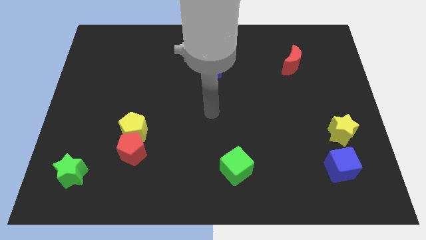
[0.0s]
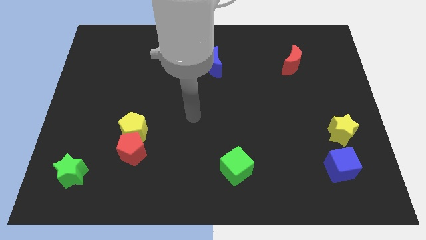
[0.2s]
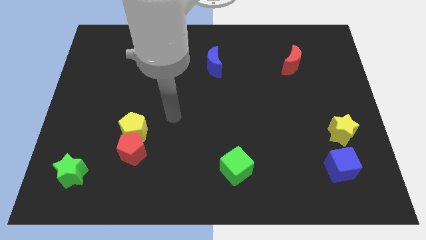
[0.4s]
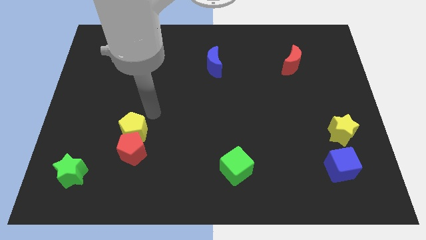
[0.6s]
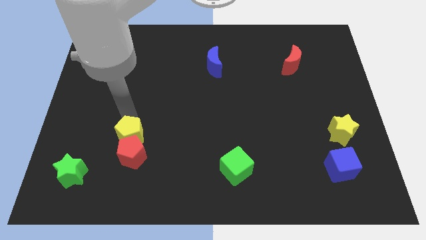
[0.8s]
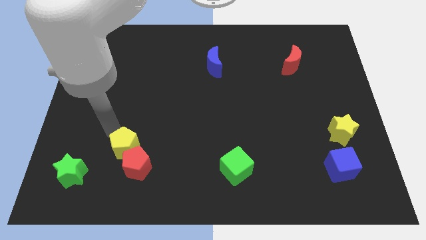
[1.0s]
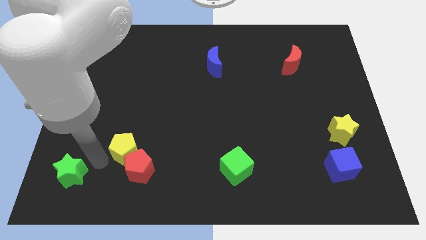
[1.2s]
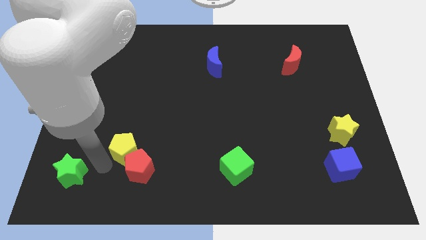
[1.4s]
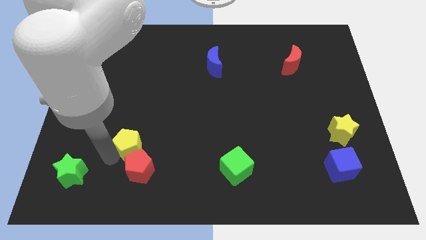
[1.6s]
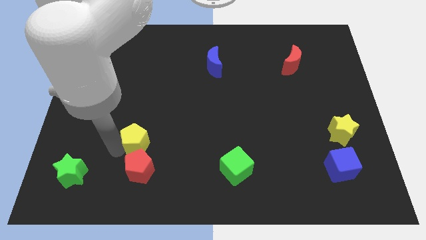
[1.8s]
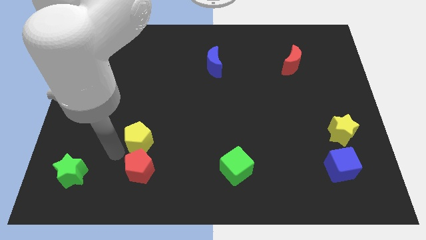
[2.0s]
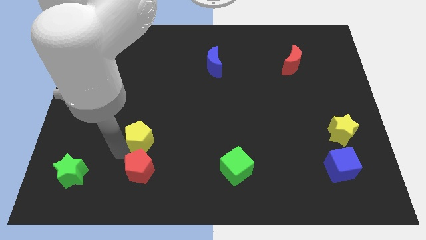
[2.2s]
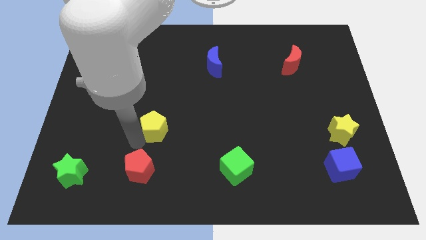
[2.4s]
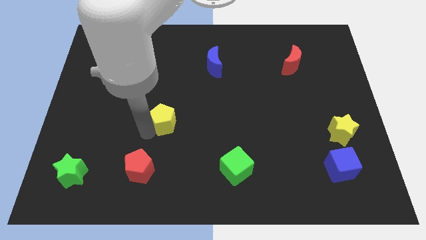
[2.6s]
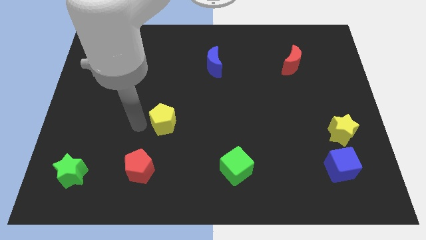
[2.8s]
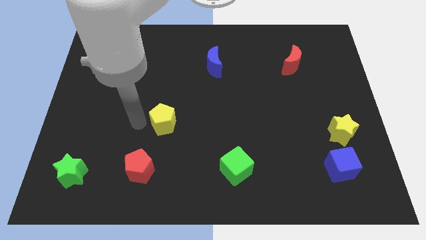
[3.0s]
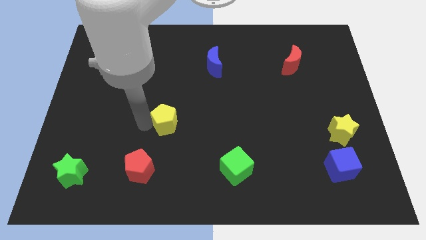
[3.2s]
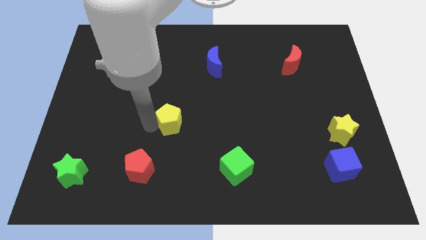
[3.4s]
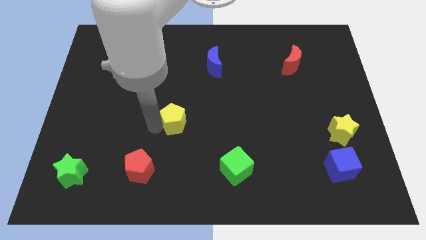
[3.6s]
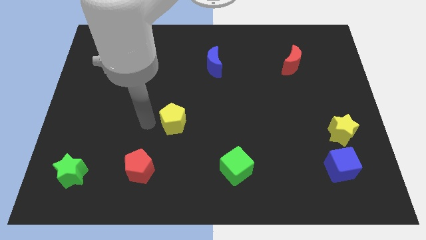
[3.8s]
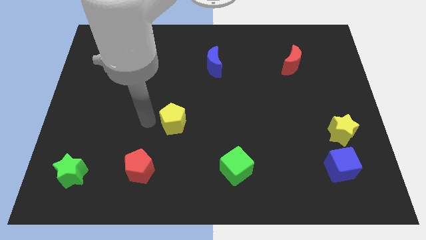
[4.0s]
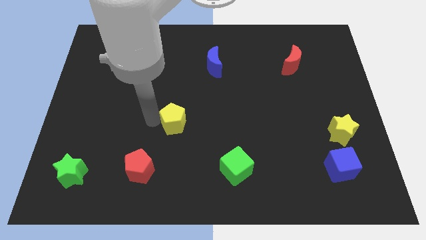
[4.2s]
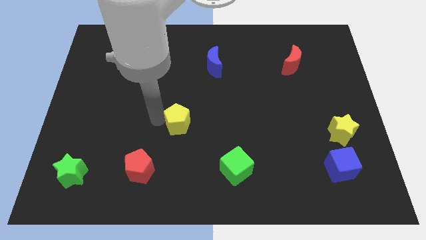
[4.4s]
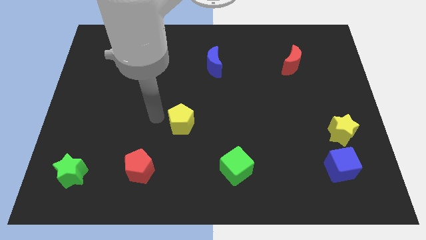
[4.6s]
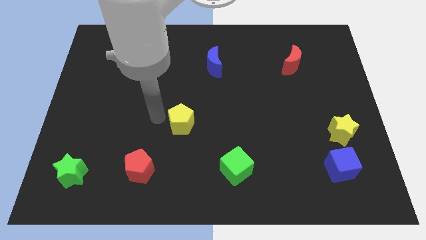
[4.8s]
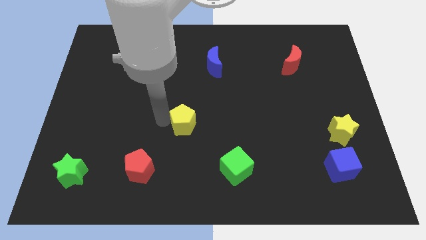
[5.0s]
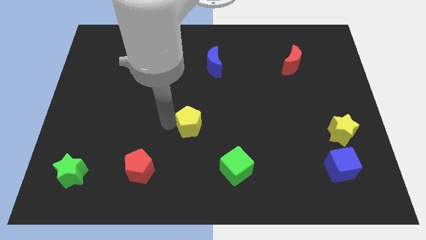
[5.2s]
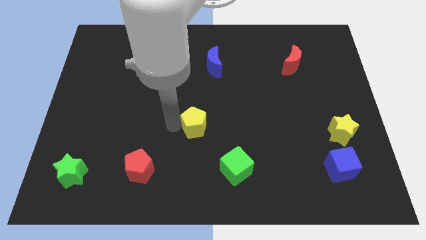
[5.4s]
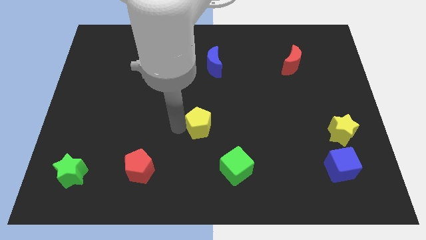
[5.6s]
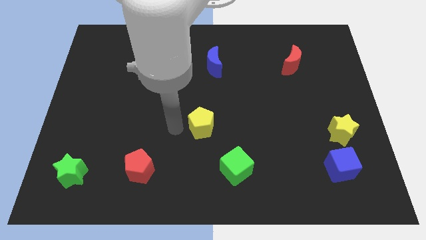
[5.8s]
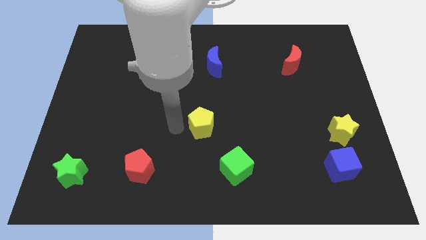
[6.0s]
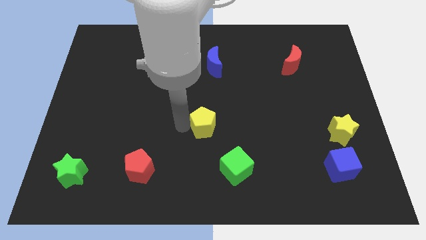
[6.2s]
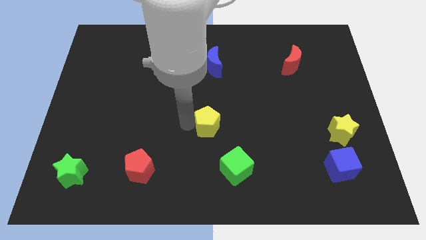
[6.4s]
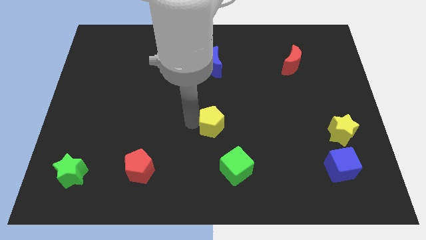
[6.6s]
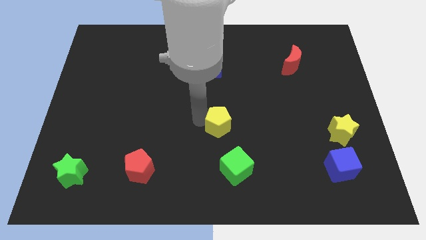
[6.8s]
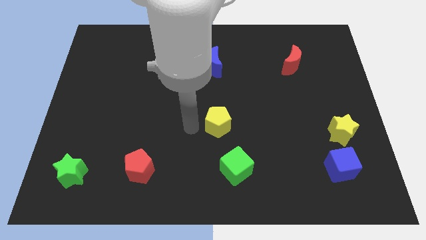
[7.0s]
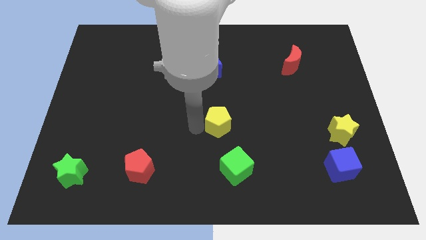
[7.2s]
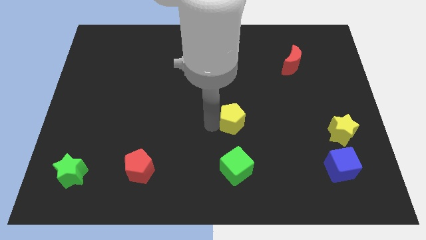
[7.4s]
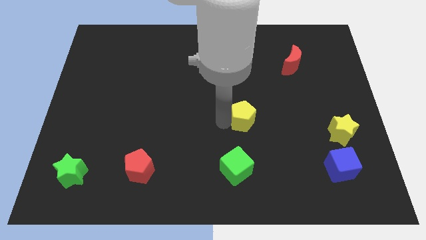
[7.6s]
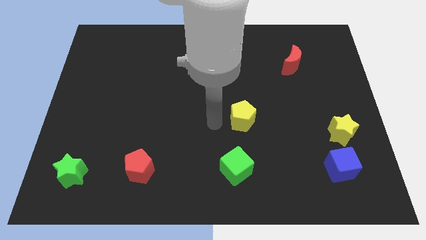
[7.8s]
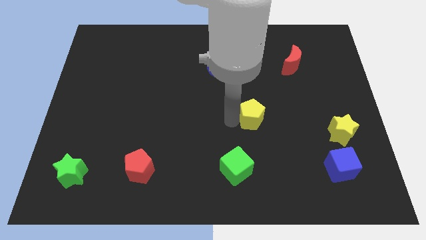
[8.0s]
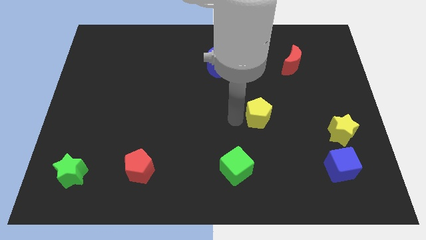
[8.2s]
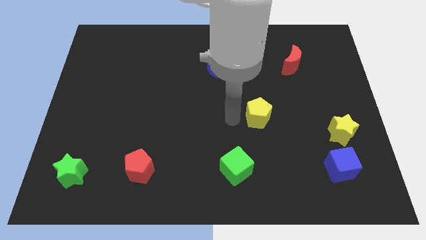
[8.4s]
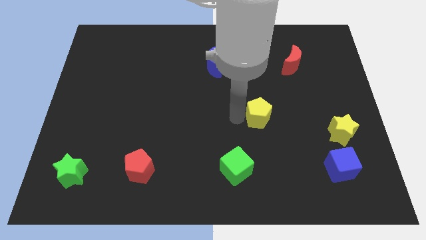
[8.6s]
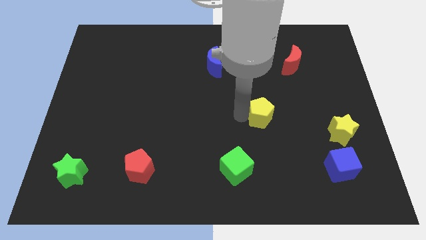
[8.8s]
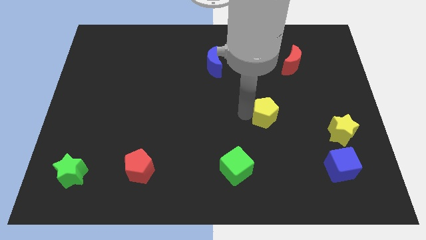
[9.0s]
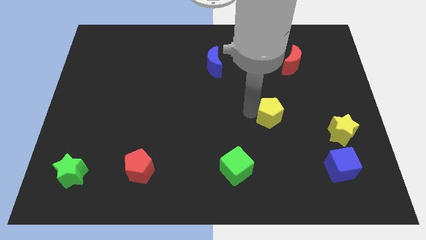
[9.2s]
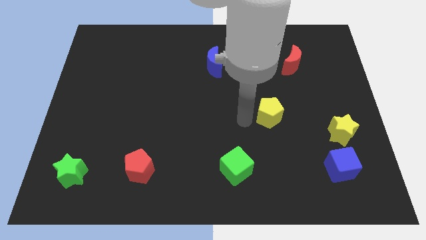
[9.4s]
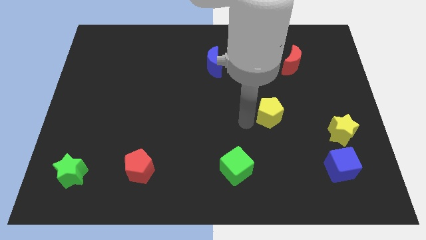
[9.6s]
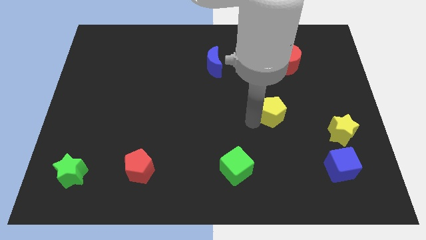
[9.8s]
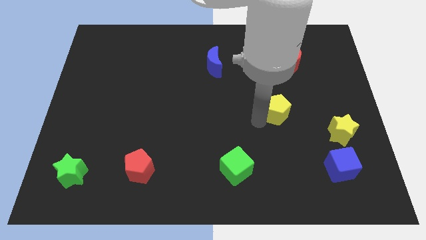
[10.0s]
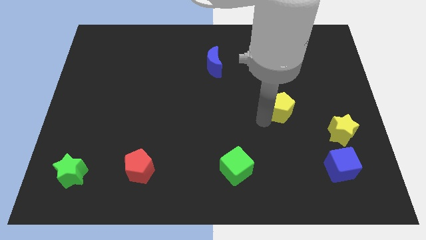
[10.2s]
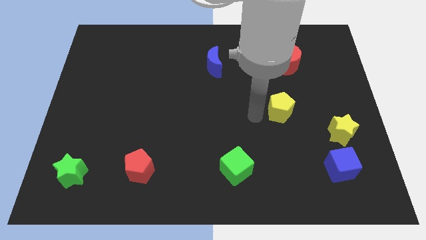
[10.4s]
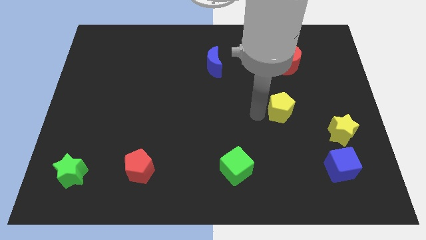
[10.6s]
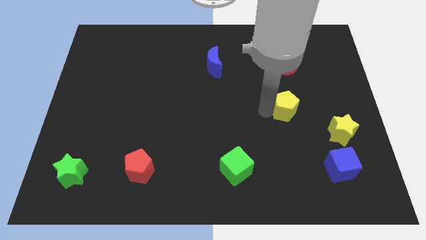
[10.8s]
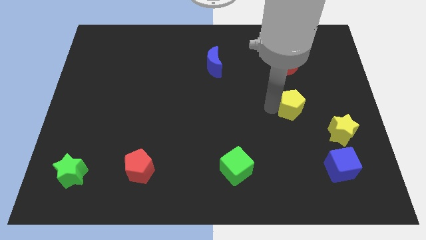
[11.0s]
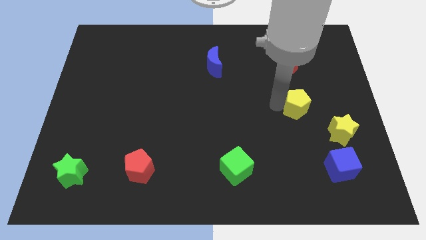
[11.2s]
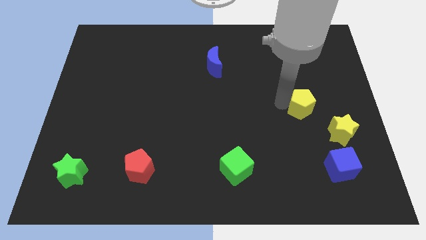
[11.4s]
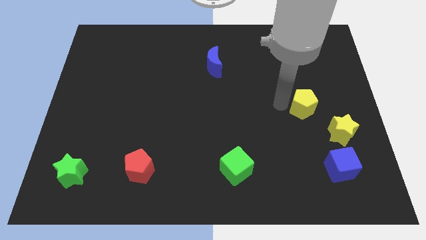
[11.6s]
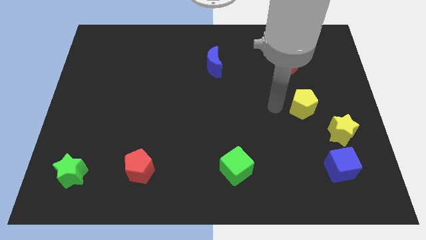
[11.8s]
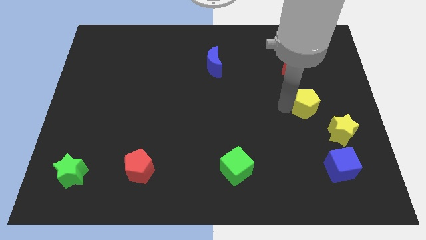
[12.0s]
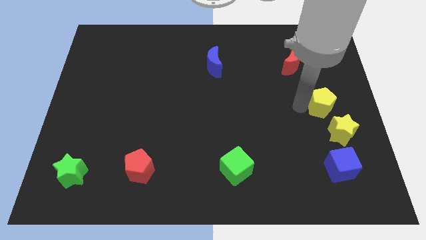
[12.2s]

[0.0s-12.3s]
push the yellow pentagon to the right side of the board
